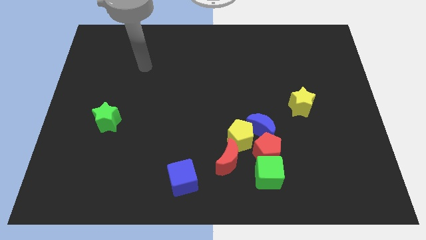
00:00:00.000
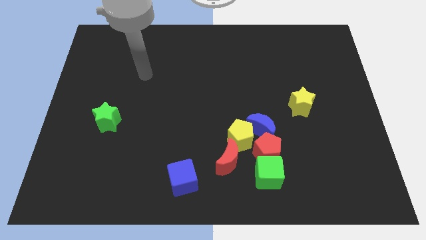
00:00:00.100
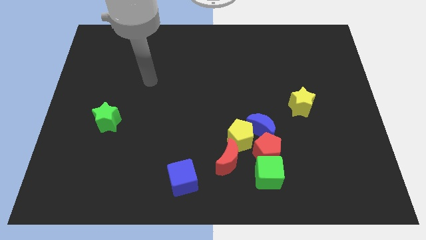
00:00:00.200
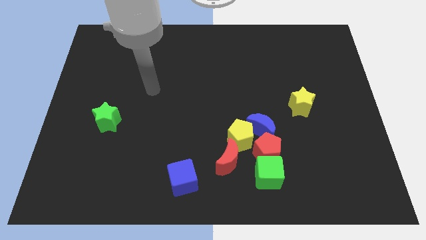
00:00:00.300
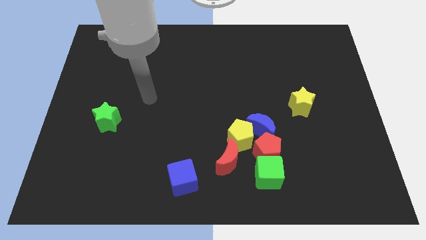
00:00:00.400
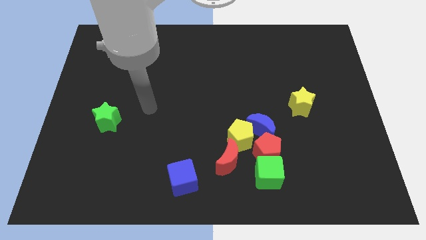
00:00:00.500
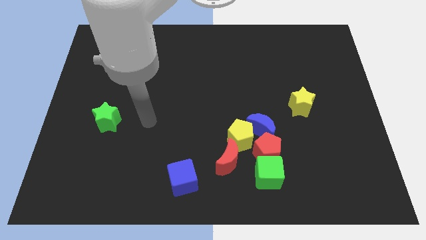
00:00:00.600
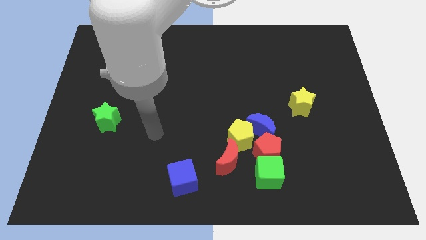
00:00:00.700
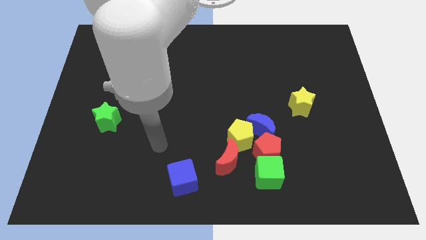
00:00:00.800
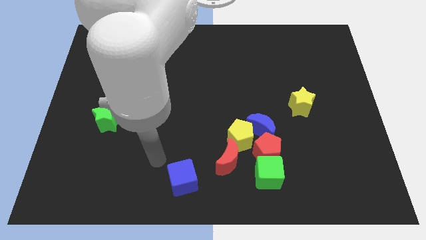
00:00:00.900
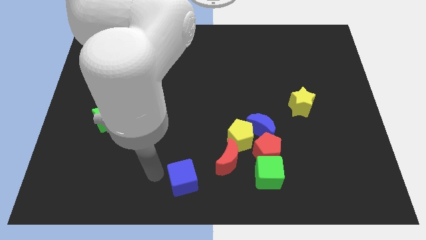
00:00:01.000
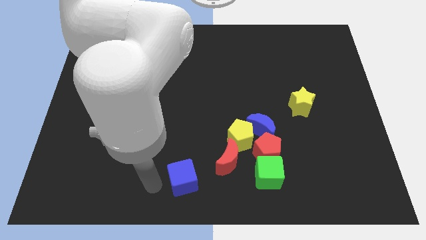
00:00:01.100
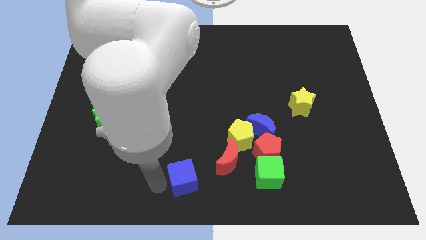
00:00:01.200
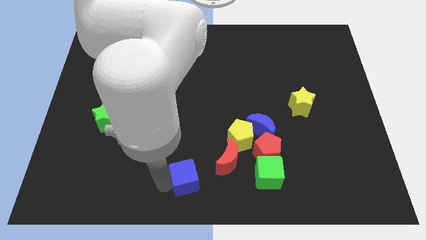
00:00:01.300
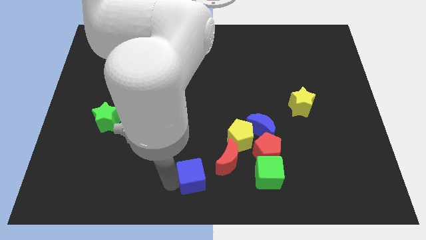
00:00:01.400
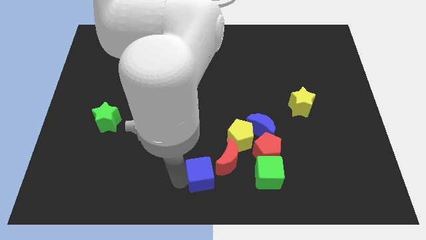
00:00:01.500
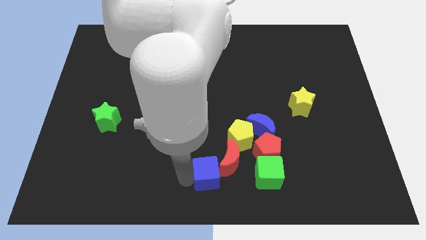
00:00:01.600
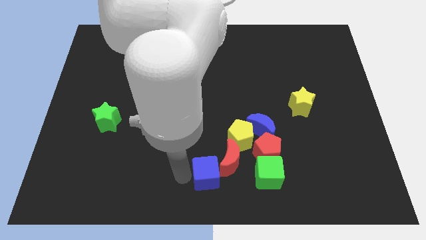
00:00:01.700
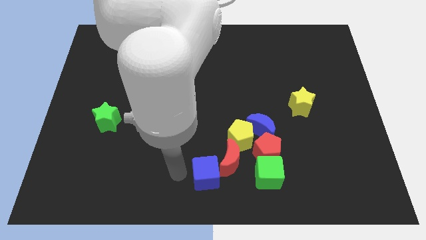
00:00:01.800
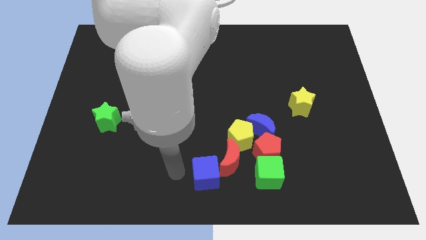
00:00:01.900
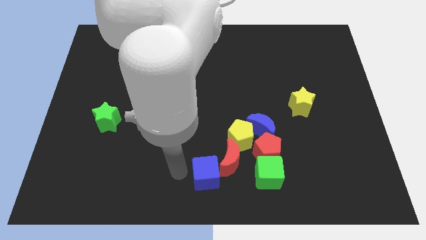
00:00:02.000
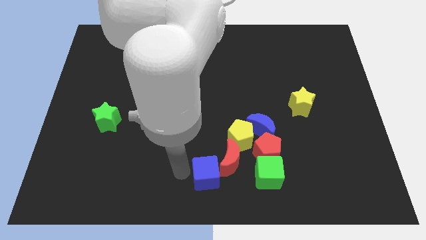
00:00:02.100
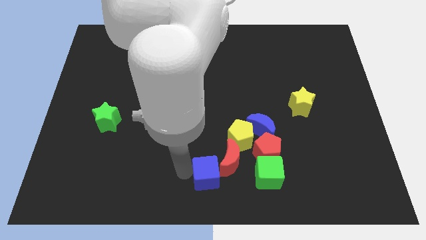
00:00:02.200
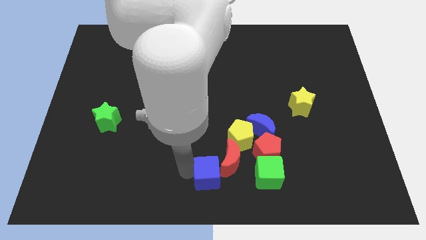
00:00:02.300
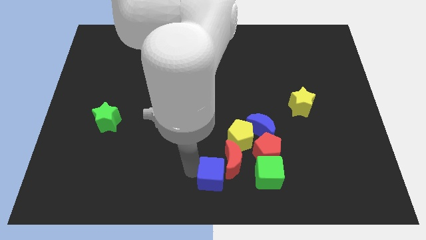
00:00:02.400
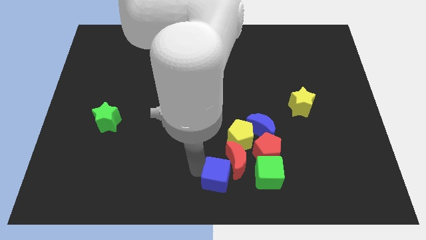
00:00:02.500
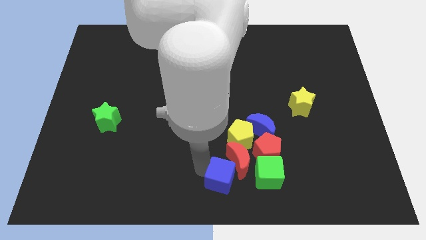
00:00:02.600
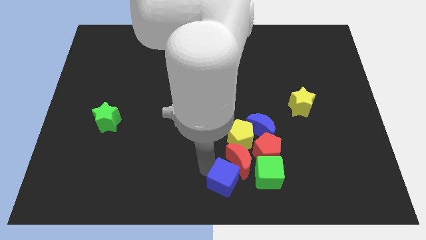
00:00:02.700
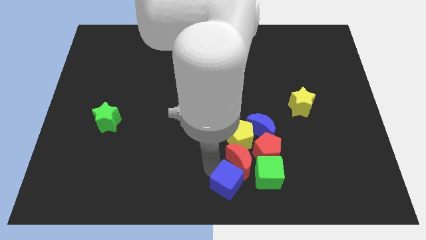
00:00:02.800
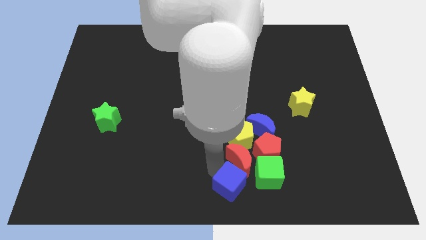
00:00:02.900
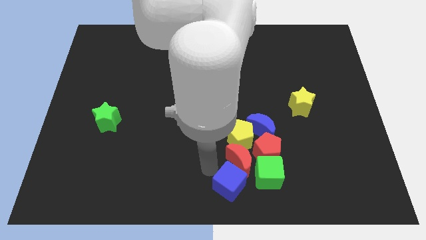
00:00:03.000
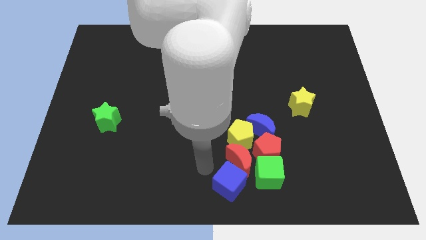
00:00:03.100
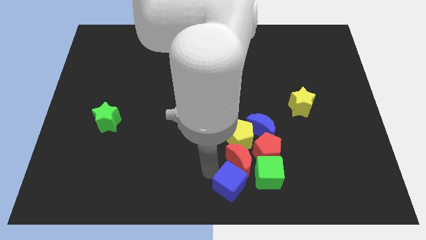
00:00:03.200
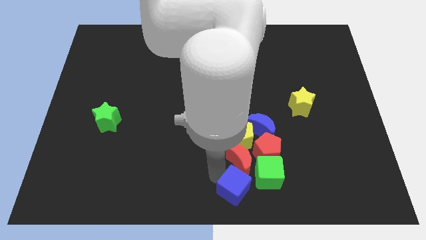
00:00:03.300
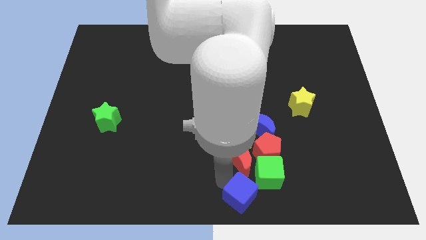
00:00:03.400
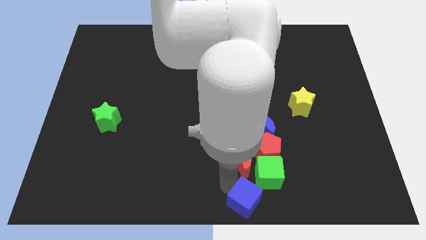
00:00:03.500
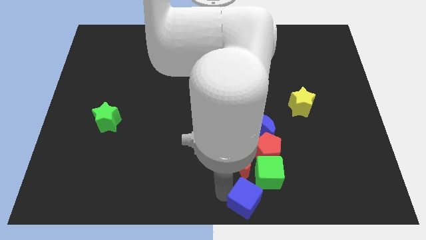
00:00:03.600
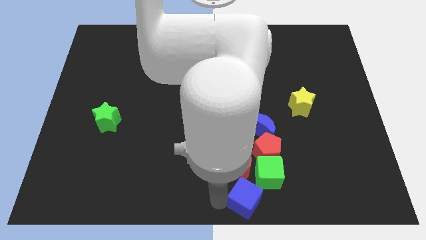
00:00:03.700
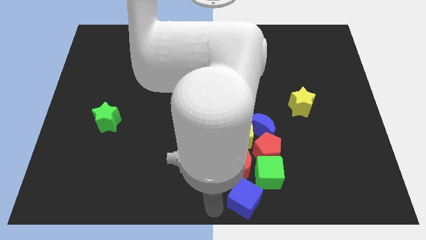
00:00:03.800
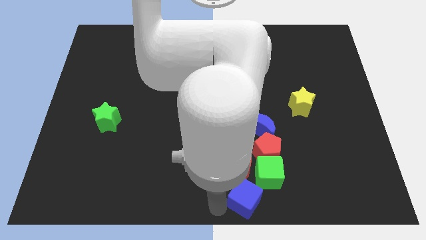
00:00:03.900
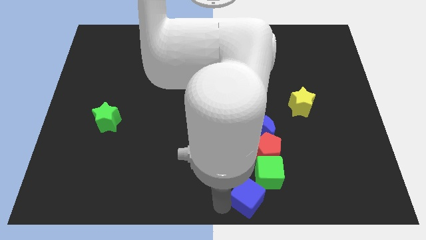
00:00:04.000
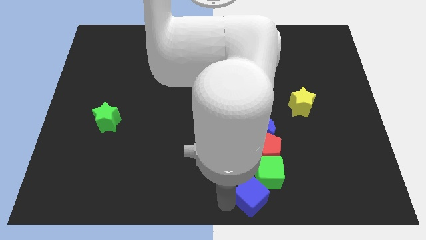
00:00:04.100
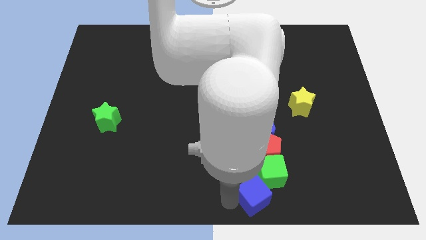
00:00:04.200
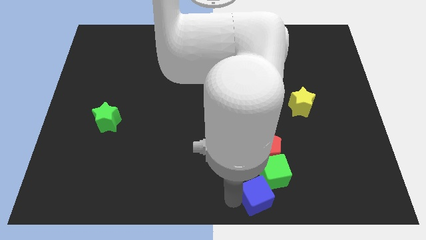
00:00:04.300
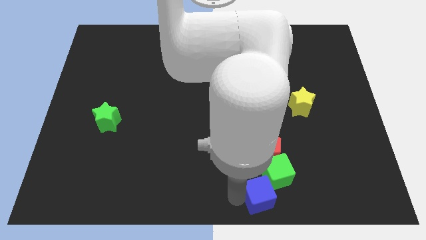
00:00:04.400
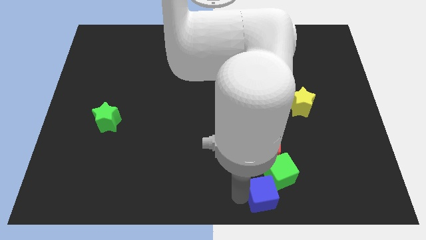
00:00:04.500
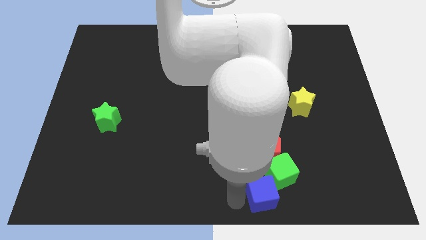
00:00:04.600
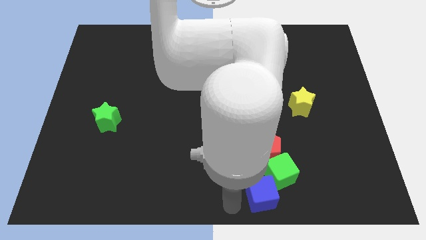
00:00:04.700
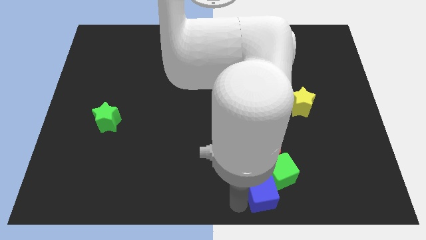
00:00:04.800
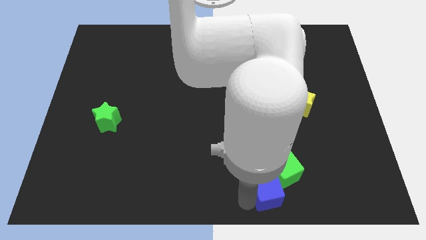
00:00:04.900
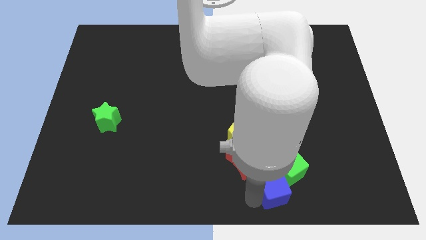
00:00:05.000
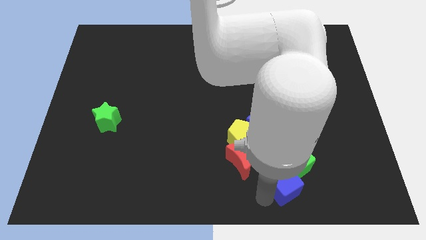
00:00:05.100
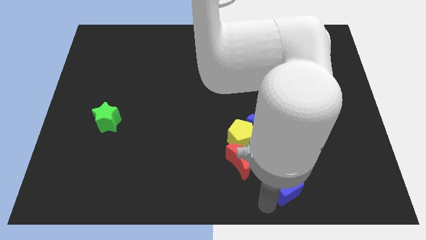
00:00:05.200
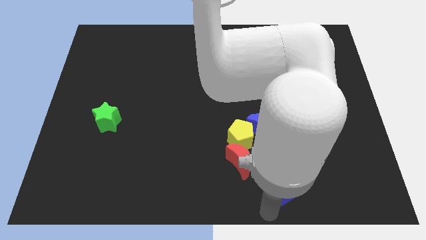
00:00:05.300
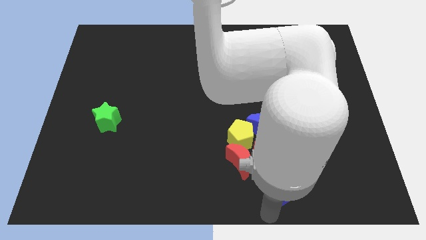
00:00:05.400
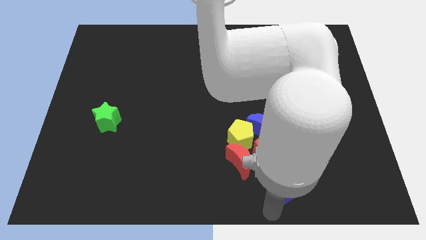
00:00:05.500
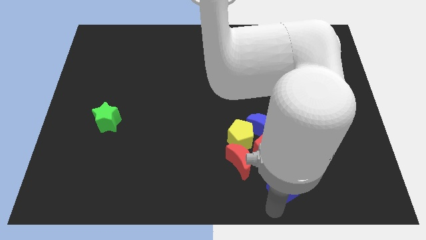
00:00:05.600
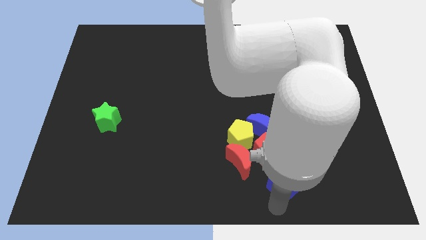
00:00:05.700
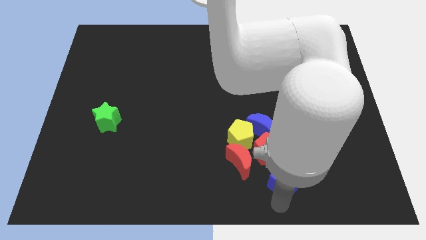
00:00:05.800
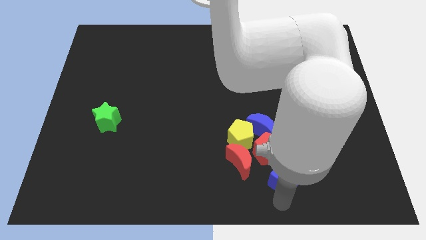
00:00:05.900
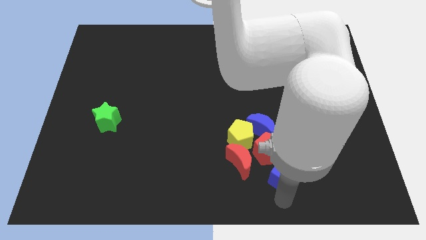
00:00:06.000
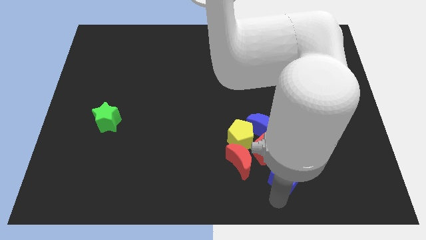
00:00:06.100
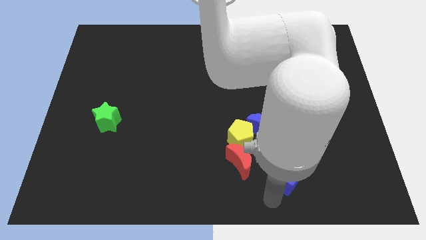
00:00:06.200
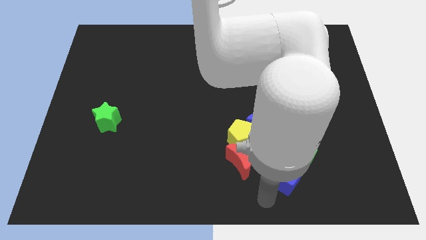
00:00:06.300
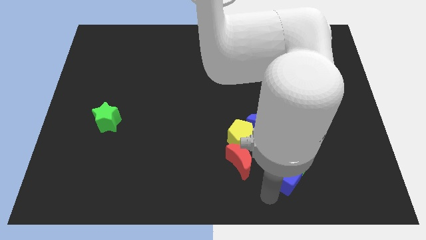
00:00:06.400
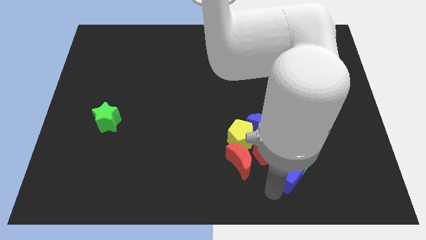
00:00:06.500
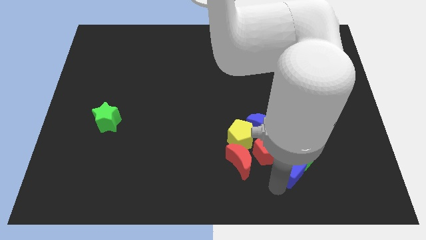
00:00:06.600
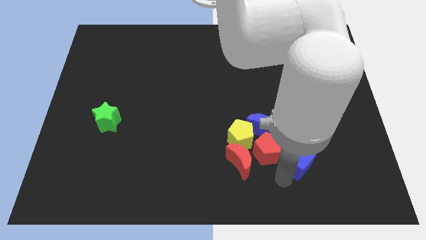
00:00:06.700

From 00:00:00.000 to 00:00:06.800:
push the blue cube to the bottom side of the yellow star
